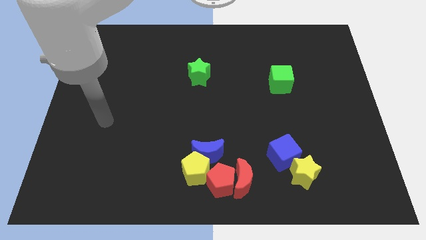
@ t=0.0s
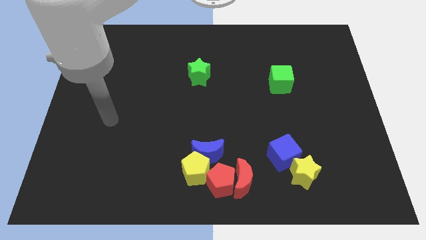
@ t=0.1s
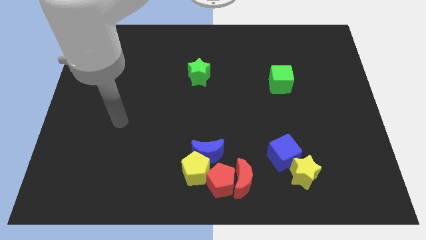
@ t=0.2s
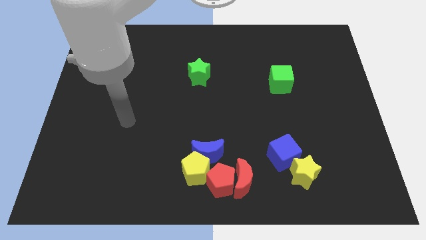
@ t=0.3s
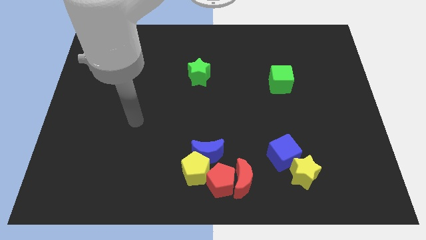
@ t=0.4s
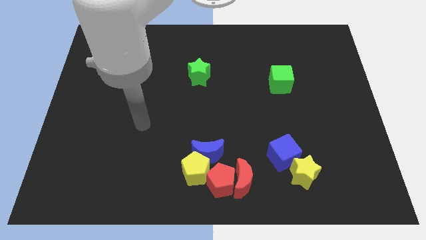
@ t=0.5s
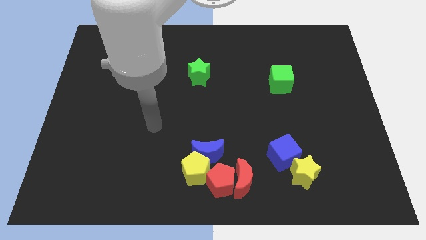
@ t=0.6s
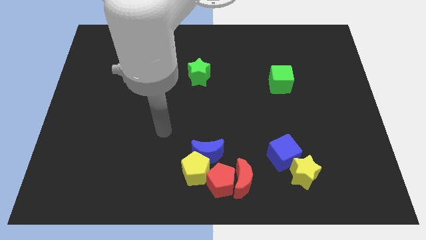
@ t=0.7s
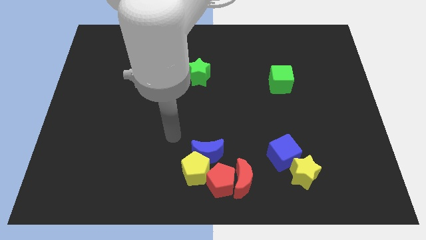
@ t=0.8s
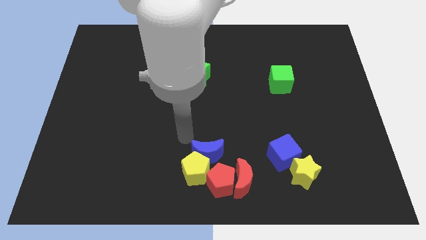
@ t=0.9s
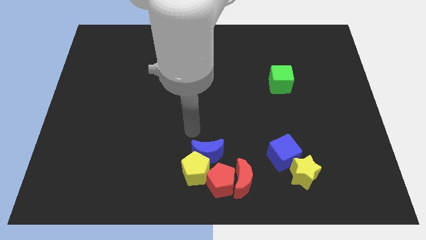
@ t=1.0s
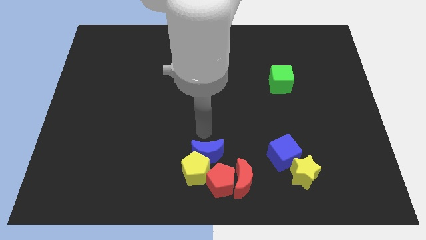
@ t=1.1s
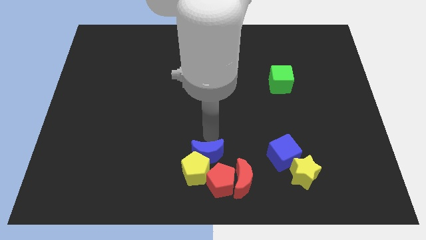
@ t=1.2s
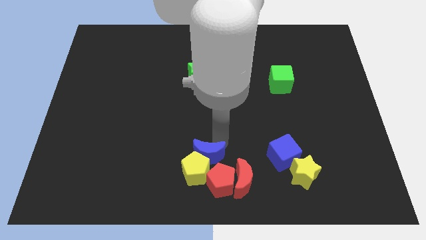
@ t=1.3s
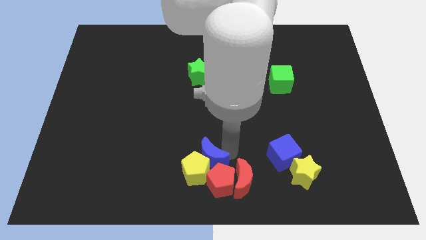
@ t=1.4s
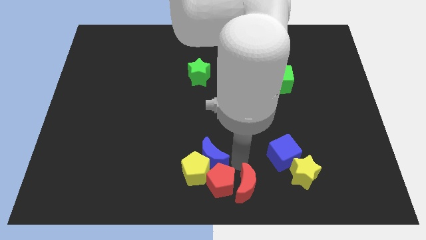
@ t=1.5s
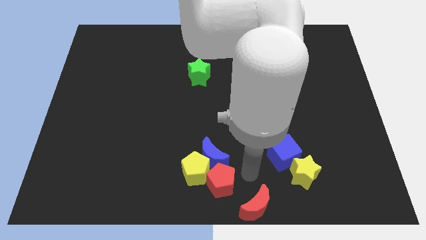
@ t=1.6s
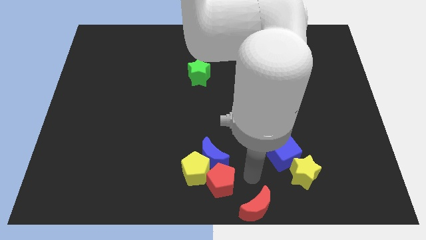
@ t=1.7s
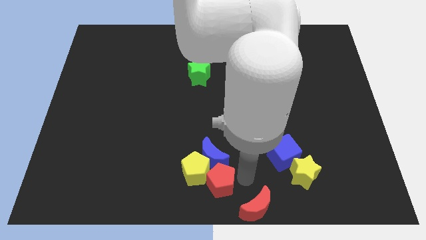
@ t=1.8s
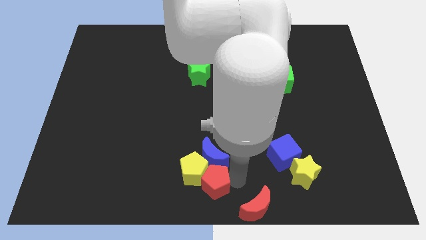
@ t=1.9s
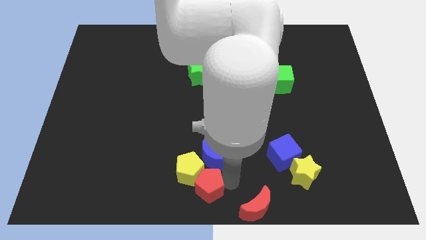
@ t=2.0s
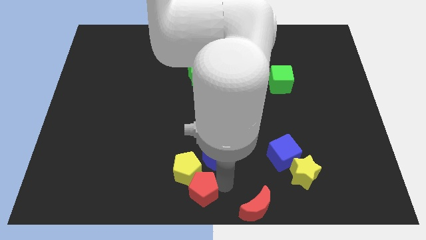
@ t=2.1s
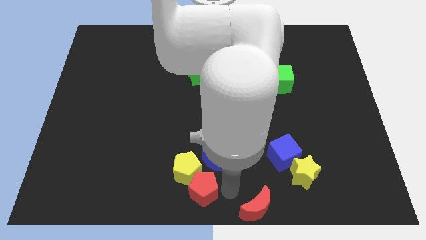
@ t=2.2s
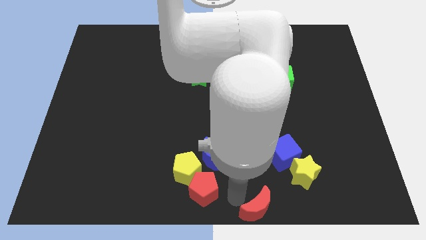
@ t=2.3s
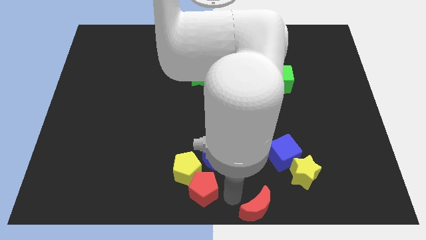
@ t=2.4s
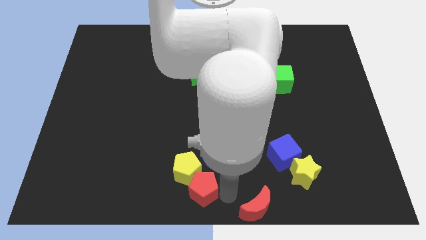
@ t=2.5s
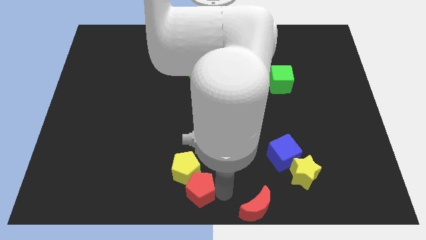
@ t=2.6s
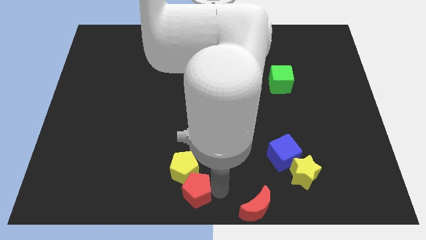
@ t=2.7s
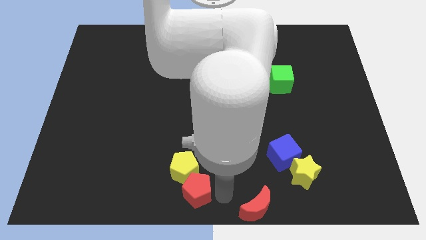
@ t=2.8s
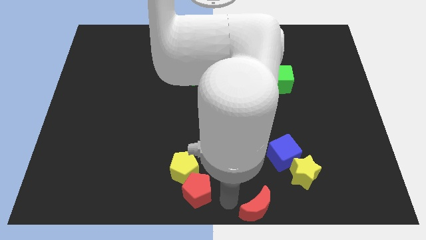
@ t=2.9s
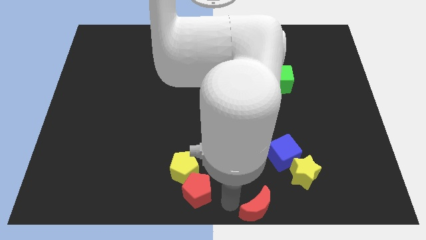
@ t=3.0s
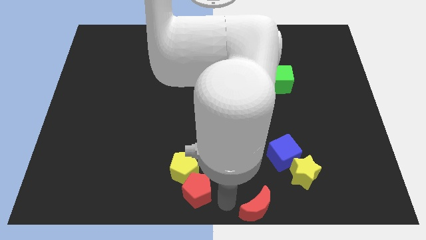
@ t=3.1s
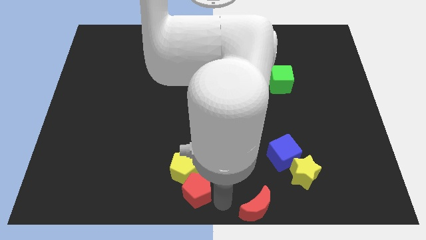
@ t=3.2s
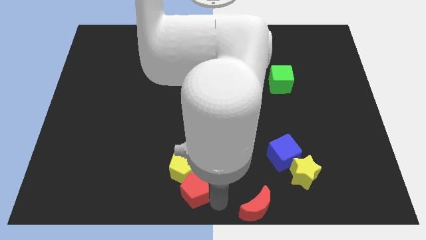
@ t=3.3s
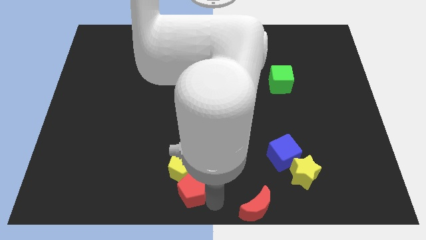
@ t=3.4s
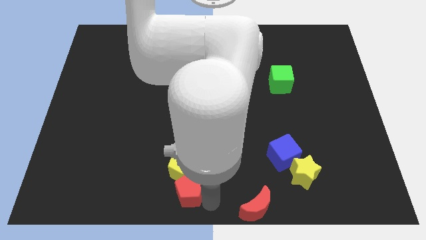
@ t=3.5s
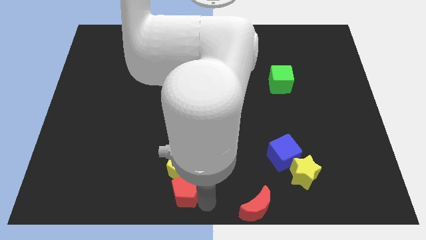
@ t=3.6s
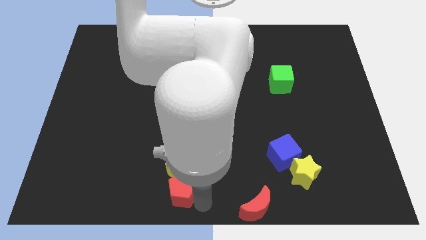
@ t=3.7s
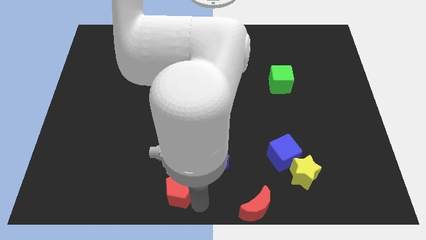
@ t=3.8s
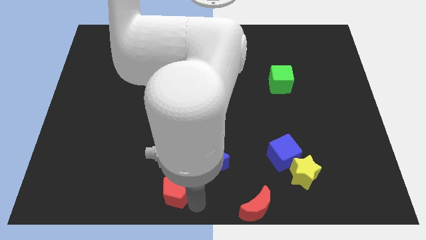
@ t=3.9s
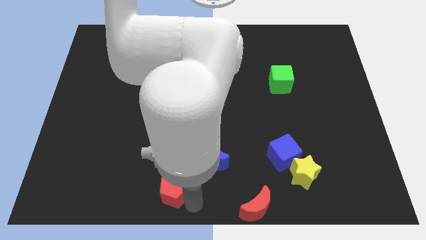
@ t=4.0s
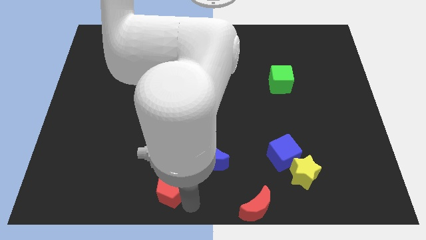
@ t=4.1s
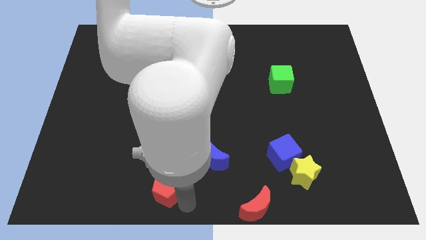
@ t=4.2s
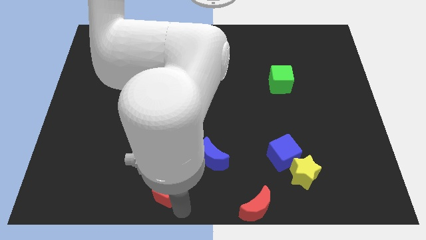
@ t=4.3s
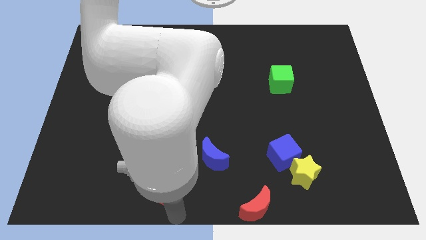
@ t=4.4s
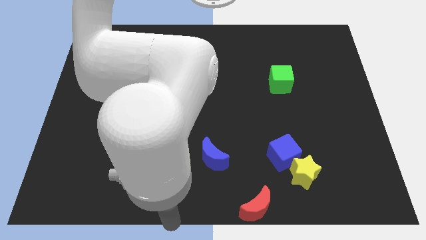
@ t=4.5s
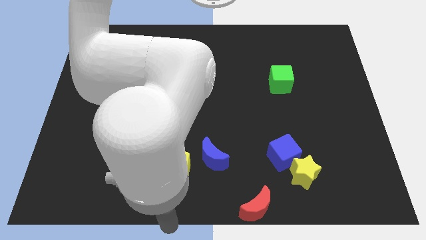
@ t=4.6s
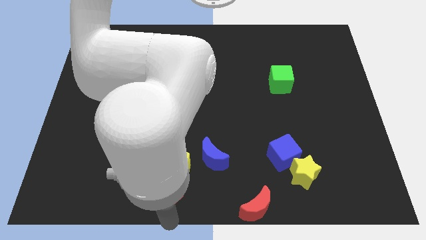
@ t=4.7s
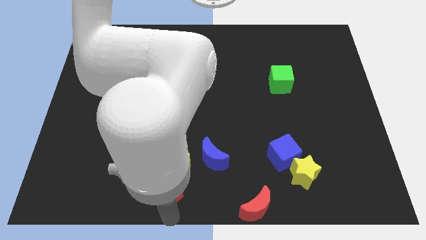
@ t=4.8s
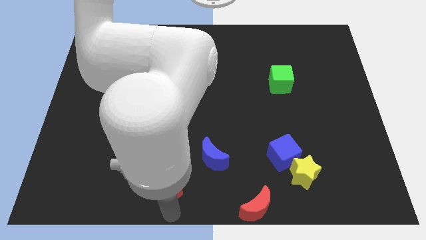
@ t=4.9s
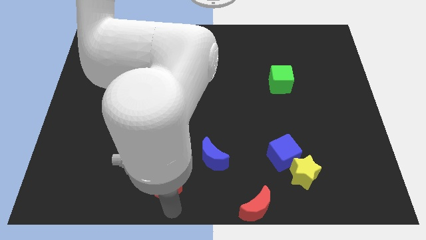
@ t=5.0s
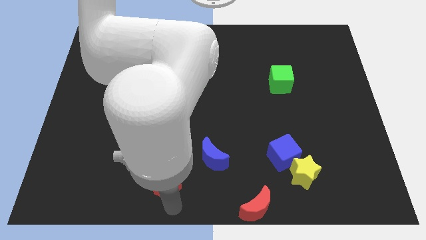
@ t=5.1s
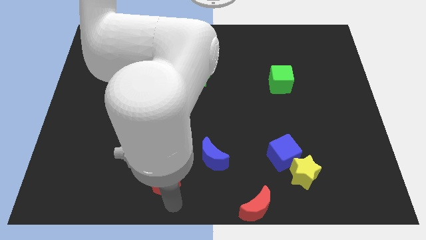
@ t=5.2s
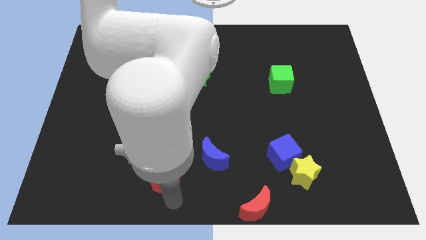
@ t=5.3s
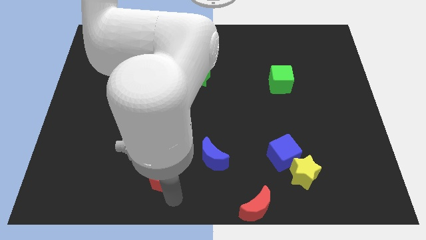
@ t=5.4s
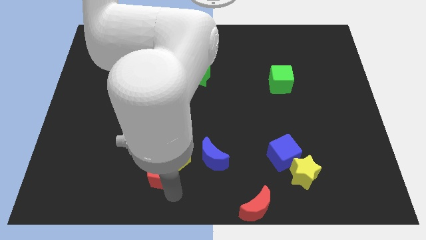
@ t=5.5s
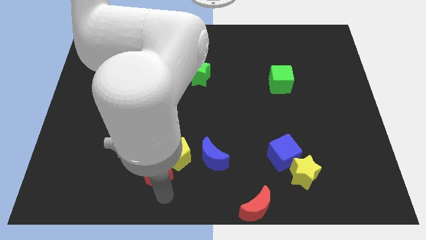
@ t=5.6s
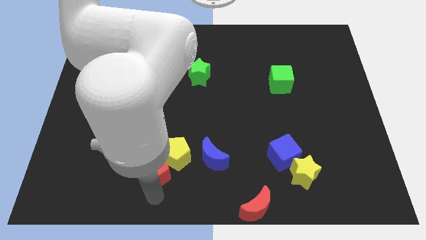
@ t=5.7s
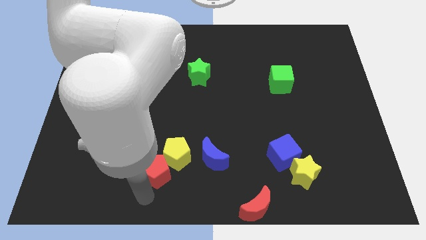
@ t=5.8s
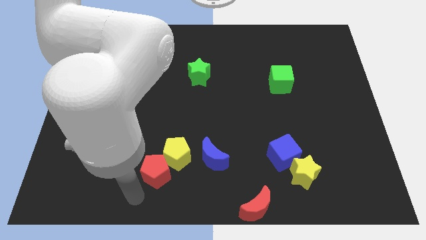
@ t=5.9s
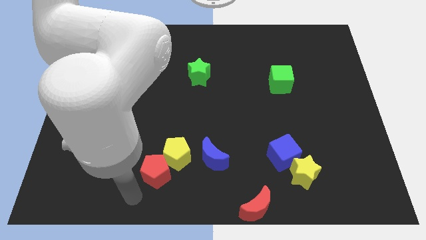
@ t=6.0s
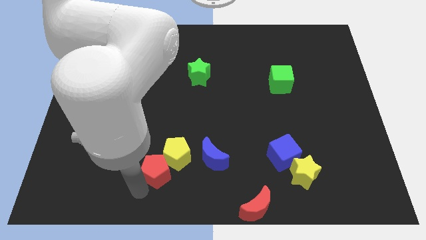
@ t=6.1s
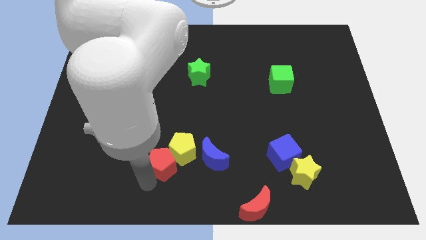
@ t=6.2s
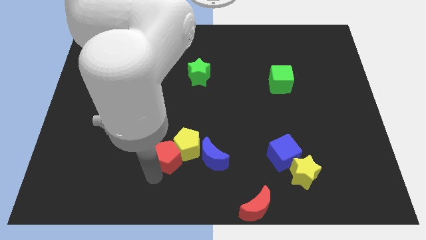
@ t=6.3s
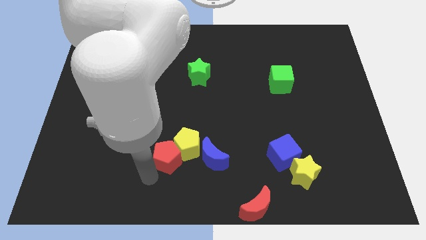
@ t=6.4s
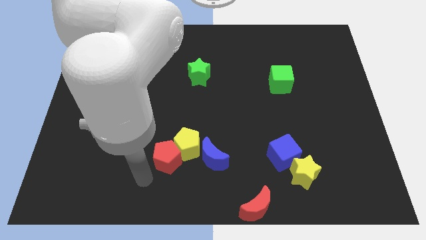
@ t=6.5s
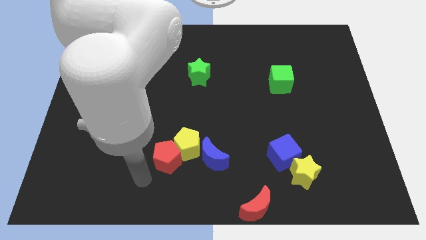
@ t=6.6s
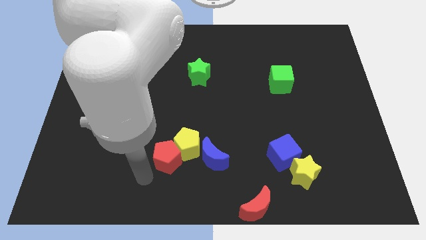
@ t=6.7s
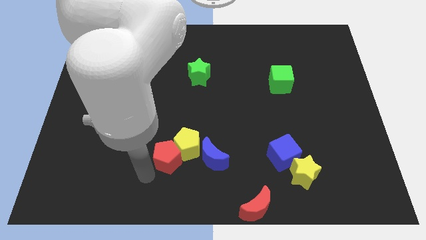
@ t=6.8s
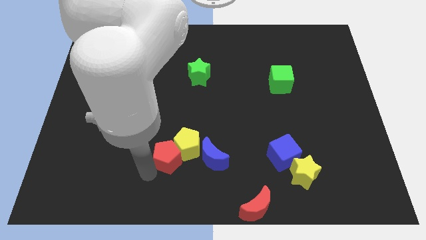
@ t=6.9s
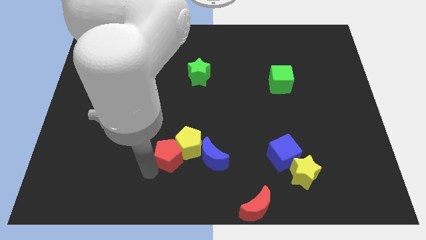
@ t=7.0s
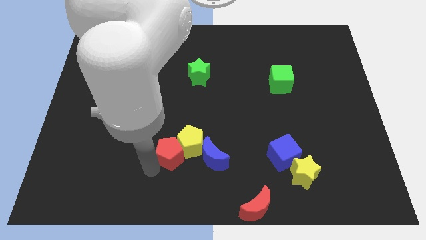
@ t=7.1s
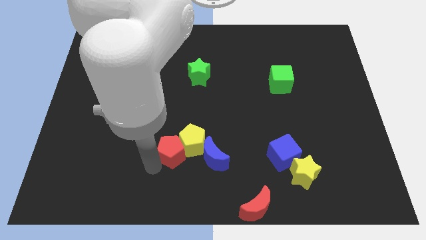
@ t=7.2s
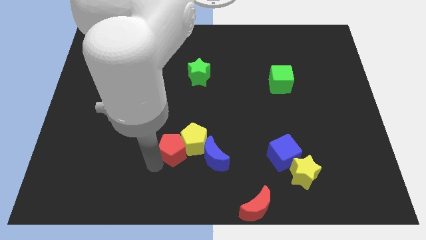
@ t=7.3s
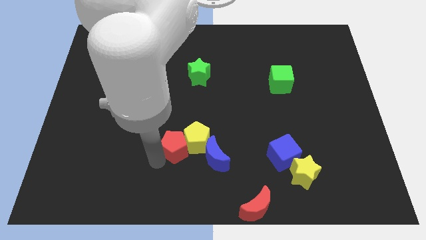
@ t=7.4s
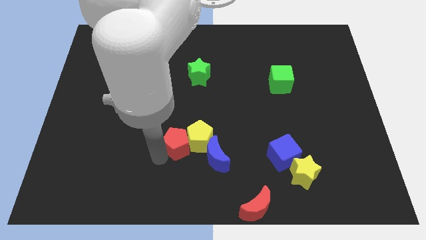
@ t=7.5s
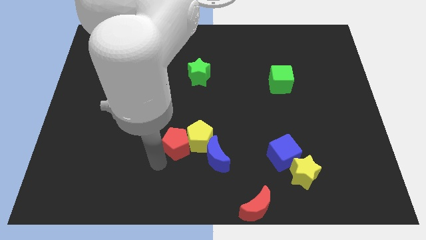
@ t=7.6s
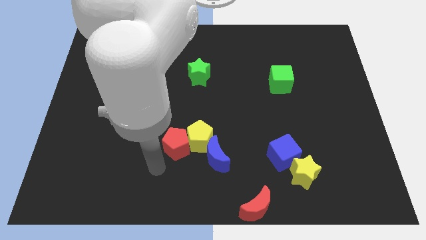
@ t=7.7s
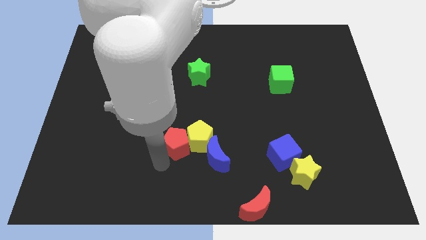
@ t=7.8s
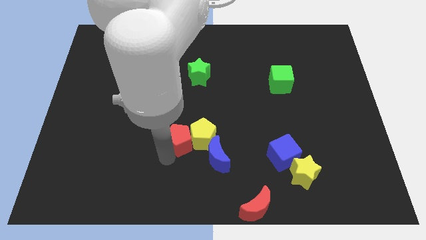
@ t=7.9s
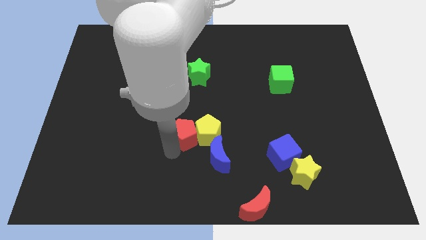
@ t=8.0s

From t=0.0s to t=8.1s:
slide the red pentagon to the middle of the board
